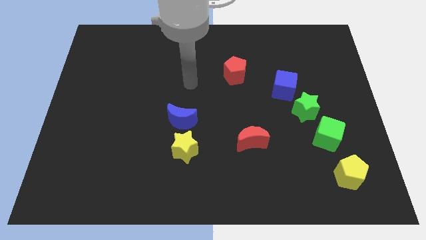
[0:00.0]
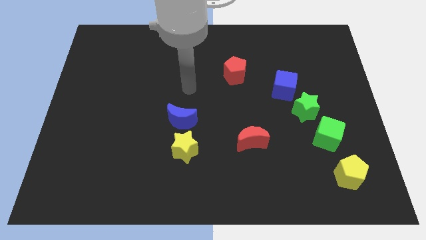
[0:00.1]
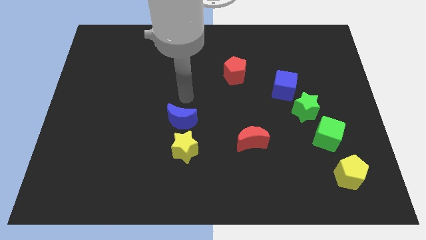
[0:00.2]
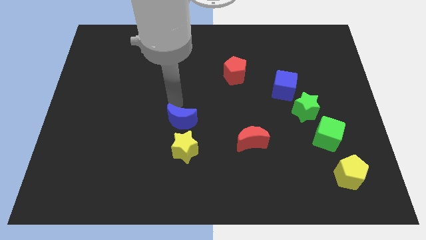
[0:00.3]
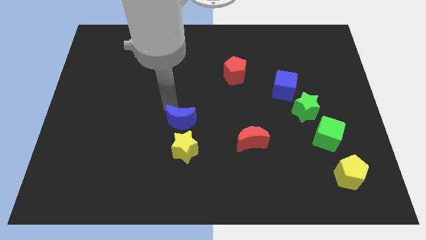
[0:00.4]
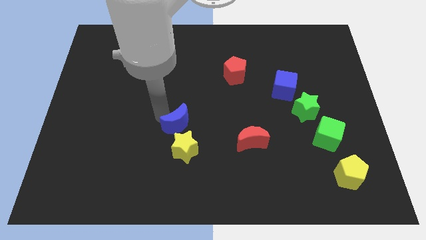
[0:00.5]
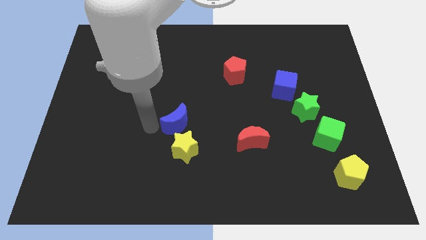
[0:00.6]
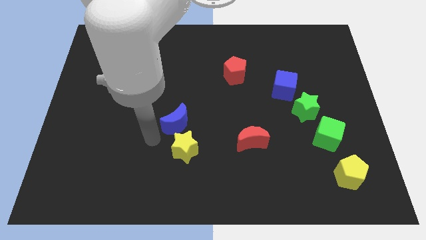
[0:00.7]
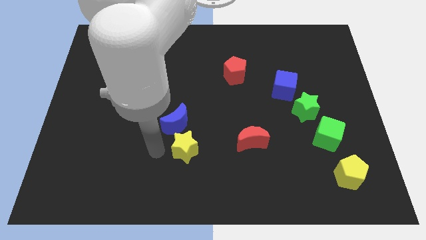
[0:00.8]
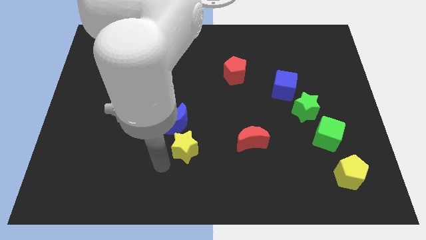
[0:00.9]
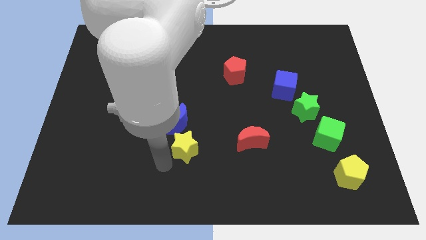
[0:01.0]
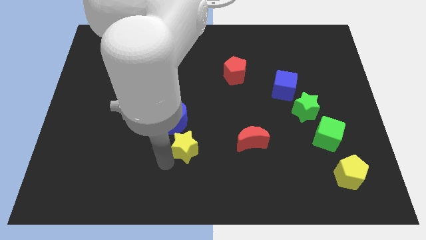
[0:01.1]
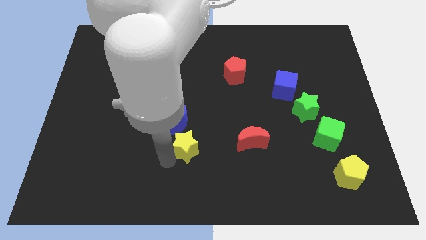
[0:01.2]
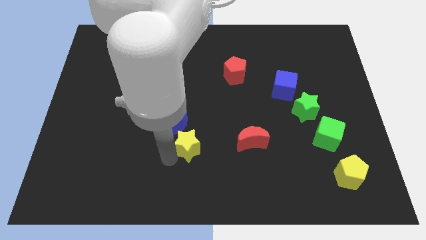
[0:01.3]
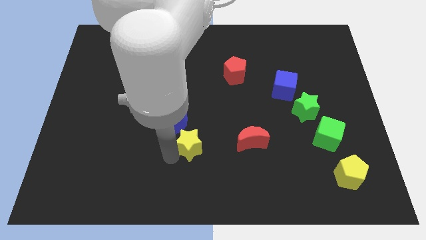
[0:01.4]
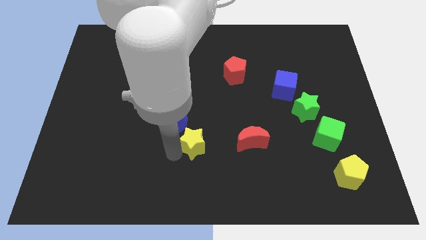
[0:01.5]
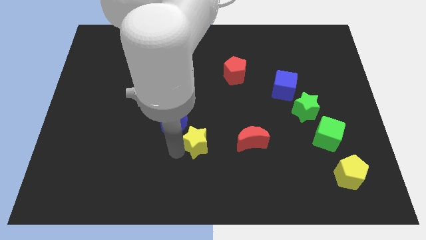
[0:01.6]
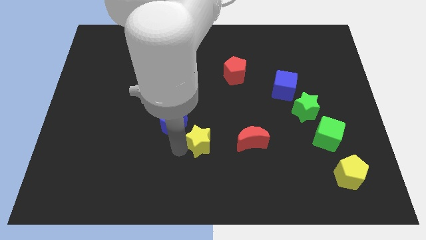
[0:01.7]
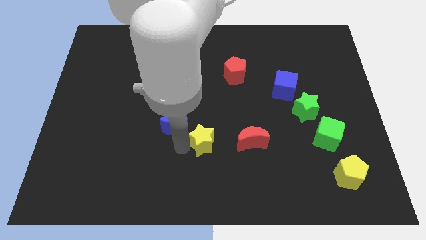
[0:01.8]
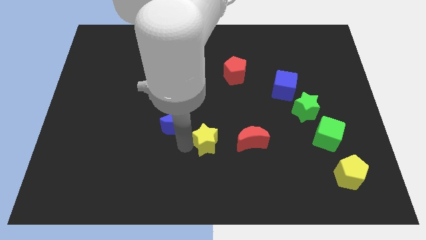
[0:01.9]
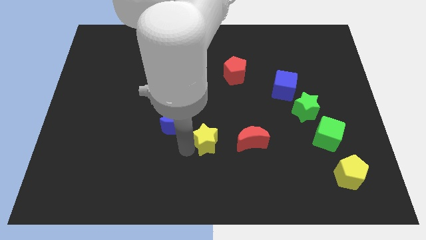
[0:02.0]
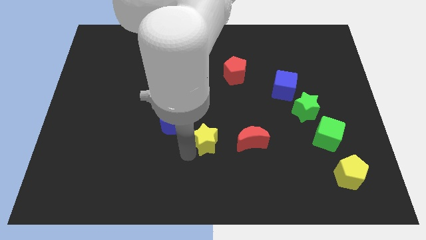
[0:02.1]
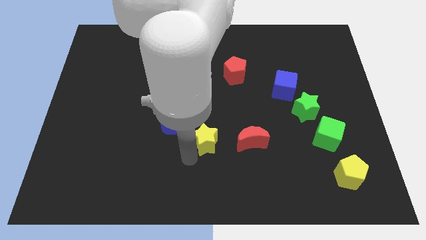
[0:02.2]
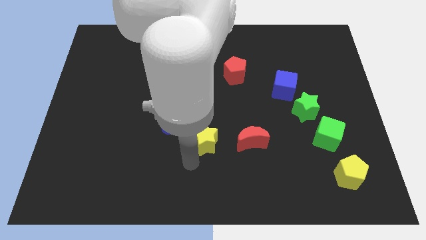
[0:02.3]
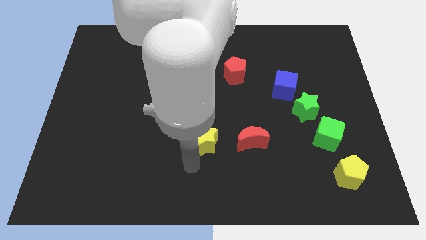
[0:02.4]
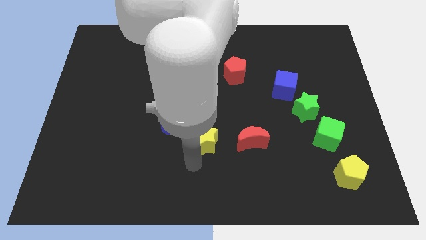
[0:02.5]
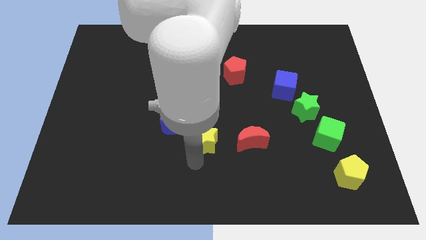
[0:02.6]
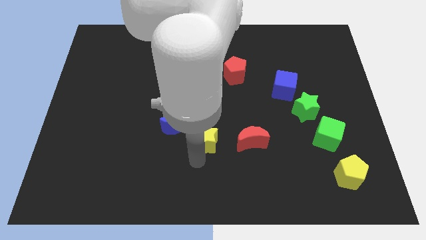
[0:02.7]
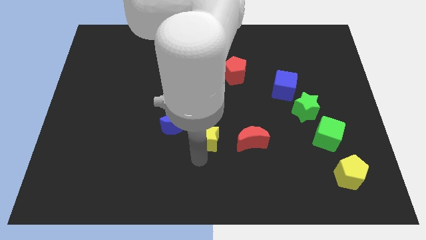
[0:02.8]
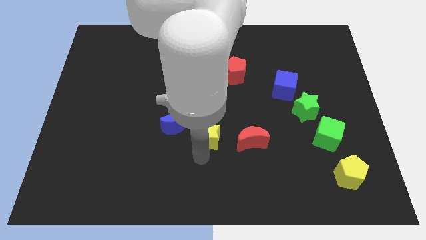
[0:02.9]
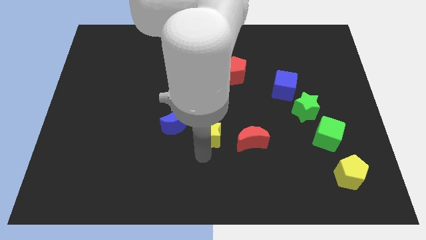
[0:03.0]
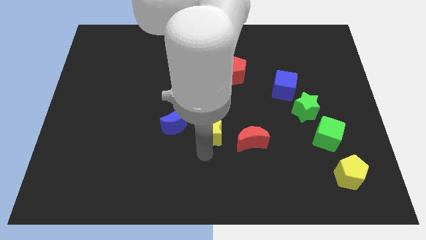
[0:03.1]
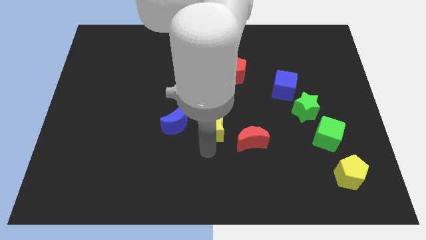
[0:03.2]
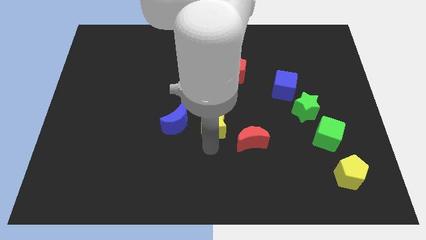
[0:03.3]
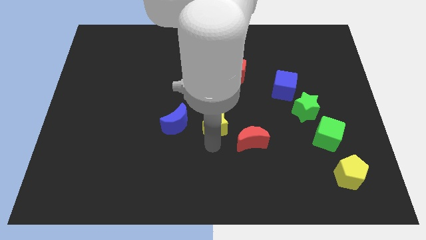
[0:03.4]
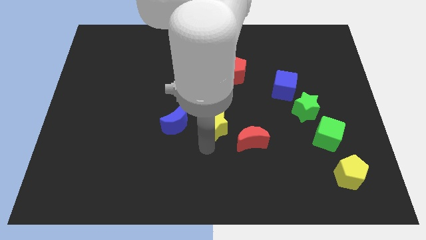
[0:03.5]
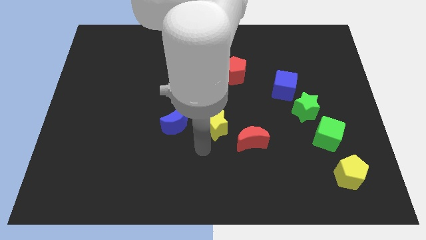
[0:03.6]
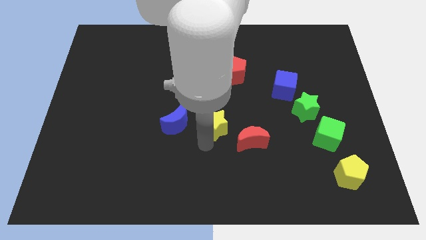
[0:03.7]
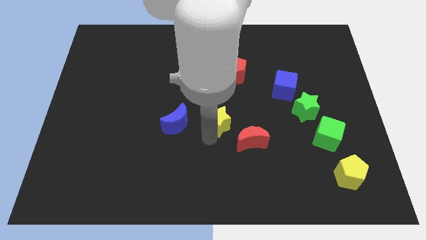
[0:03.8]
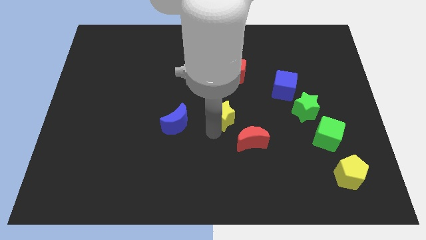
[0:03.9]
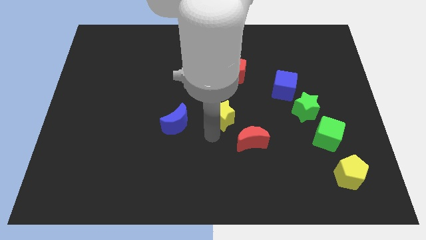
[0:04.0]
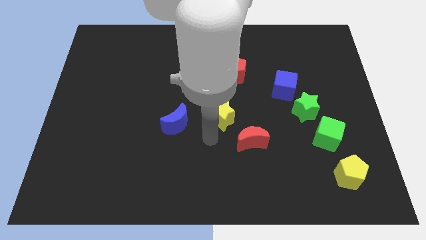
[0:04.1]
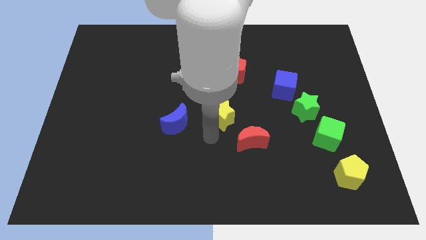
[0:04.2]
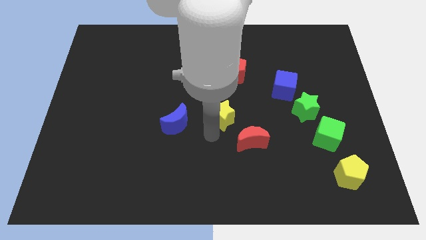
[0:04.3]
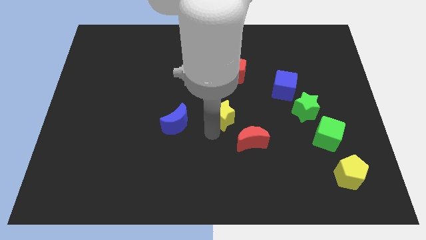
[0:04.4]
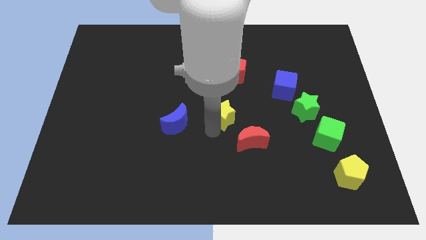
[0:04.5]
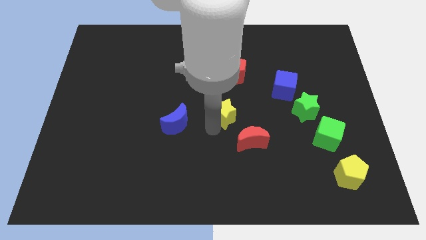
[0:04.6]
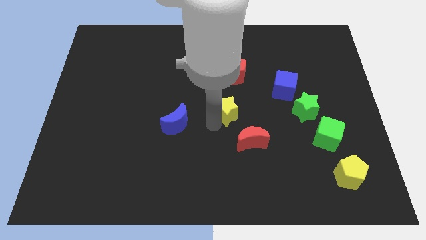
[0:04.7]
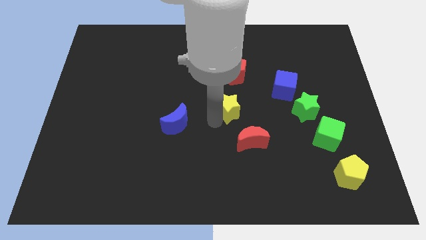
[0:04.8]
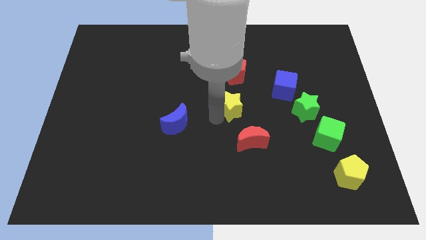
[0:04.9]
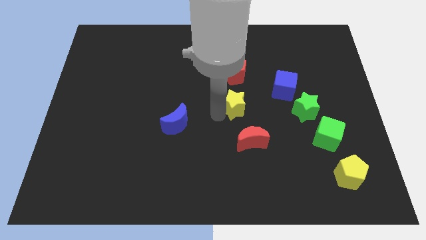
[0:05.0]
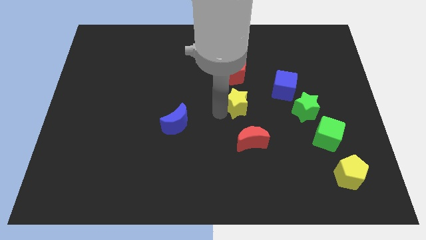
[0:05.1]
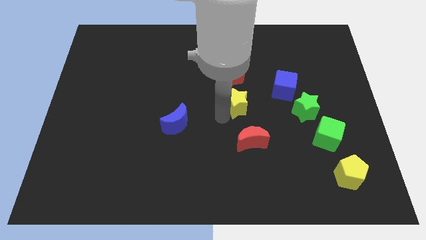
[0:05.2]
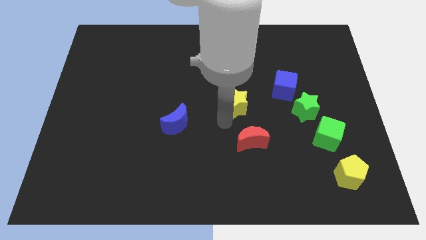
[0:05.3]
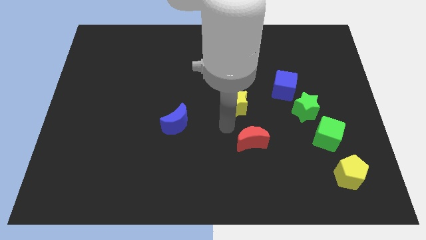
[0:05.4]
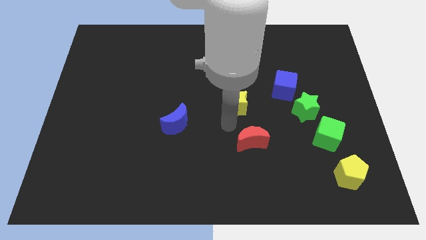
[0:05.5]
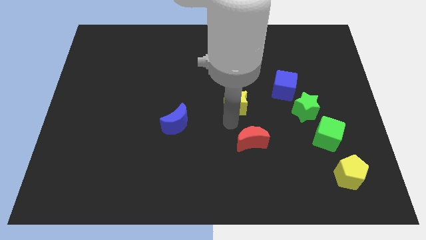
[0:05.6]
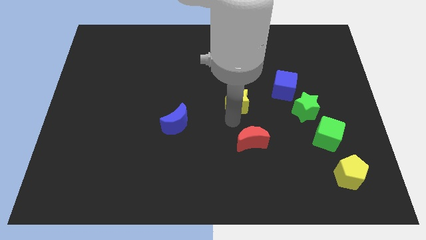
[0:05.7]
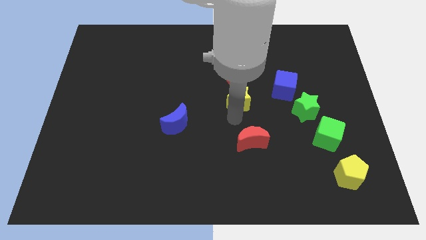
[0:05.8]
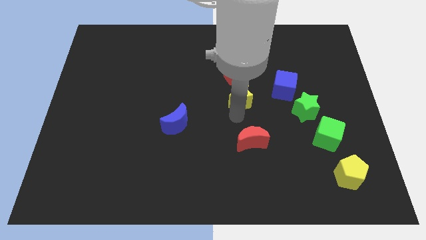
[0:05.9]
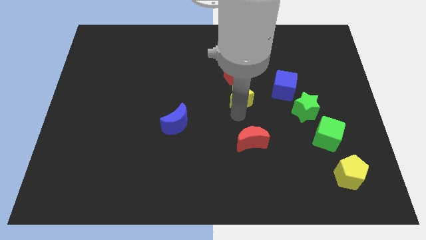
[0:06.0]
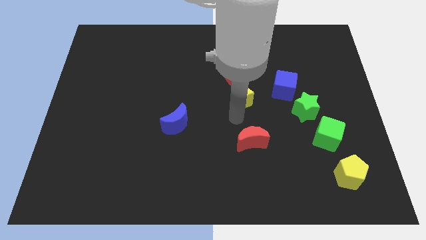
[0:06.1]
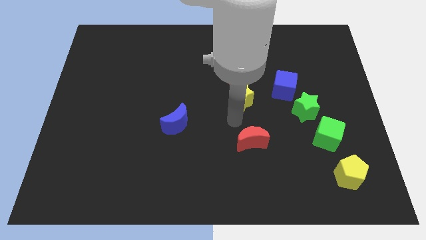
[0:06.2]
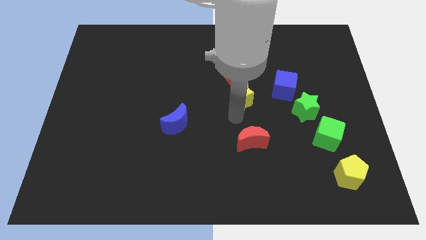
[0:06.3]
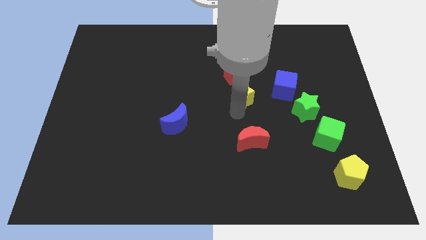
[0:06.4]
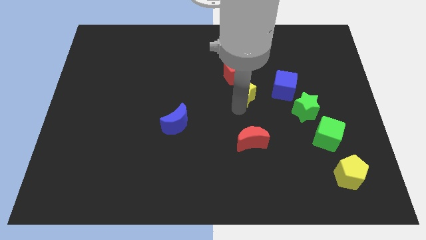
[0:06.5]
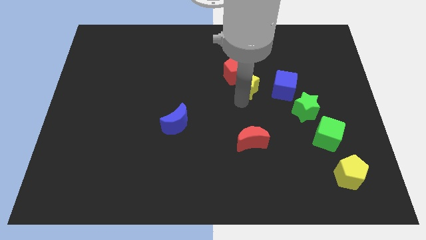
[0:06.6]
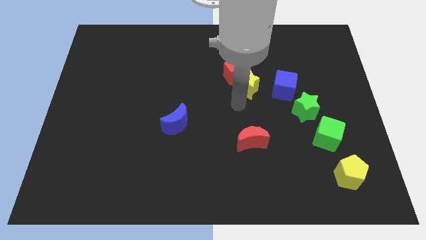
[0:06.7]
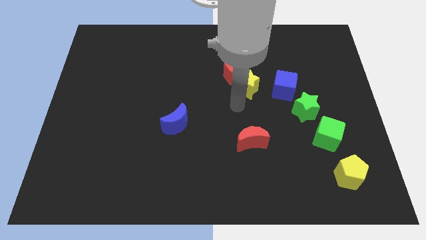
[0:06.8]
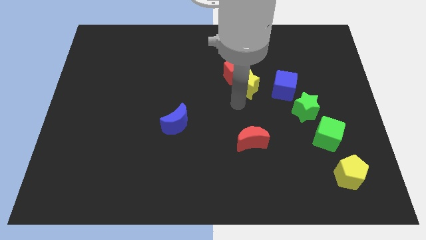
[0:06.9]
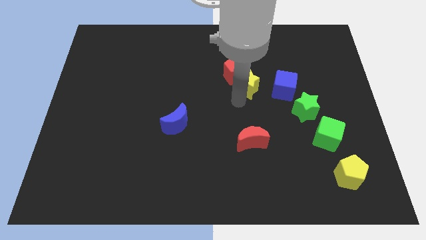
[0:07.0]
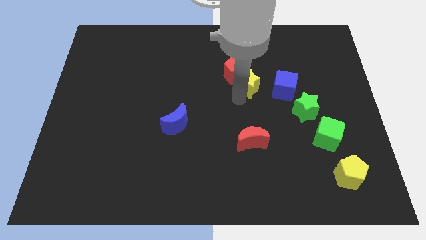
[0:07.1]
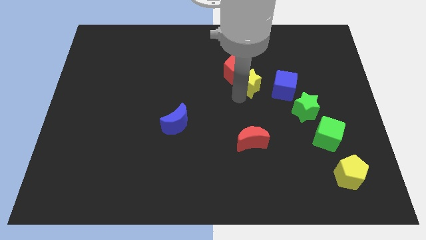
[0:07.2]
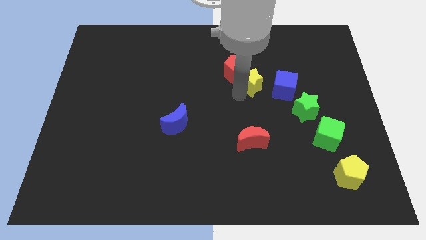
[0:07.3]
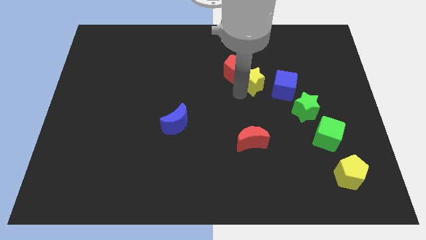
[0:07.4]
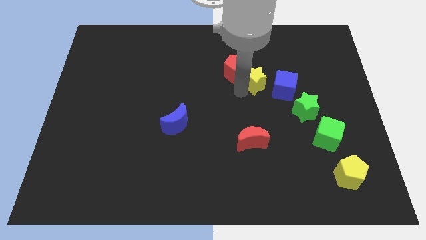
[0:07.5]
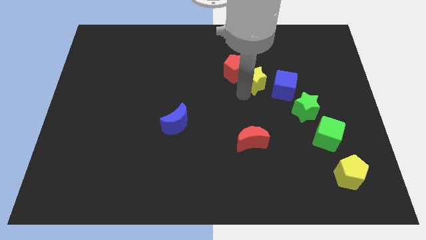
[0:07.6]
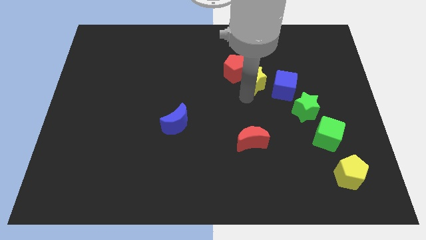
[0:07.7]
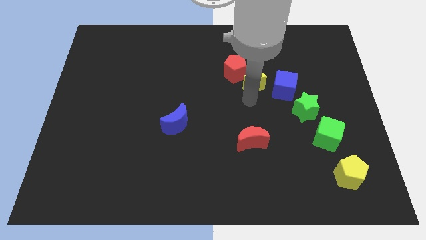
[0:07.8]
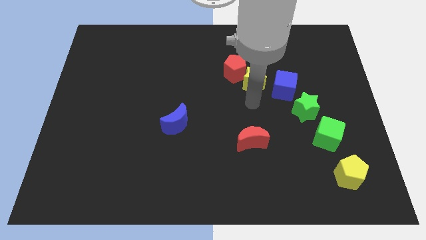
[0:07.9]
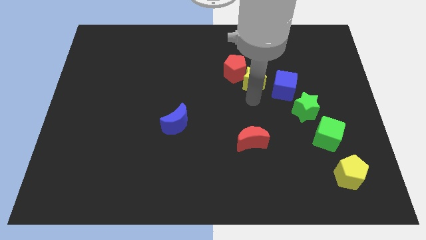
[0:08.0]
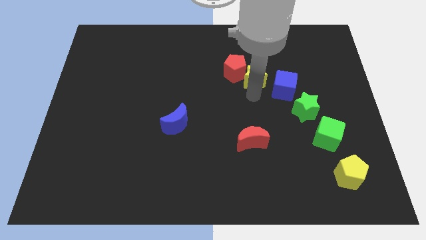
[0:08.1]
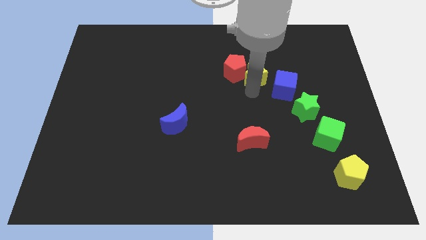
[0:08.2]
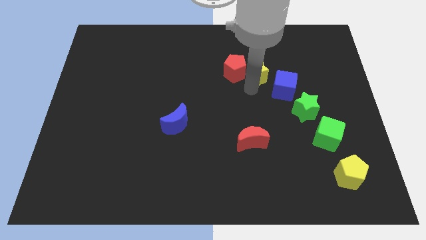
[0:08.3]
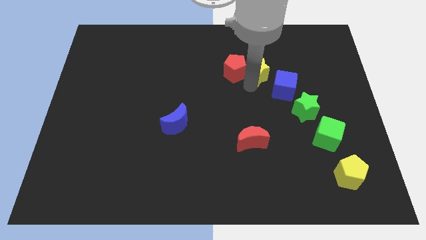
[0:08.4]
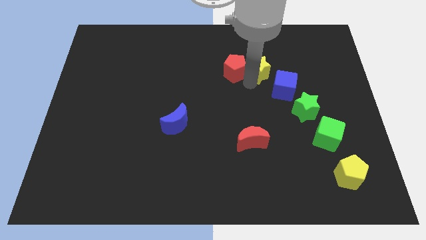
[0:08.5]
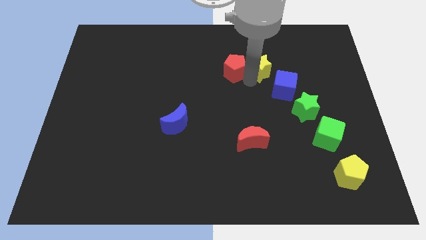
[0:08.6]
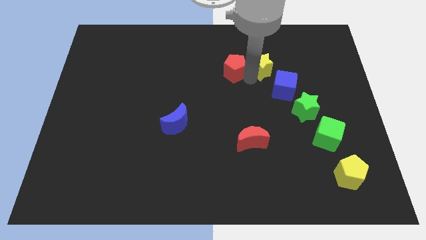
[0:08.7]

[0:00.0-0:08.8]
move the yellow star to the top of the blue cube
